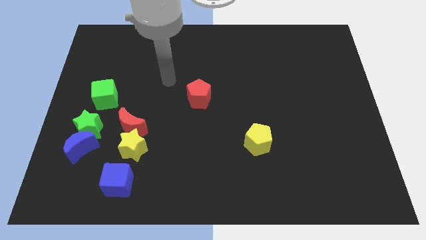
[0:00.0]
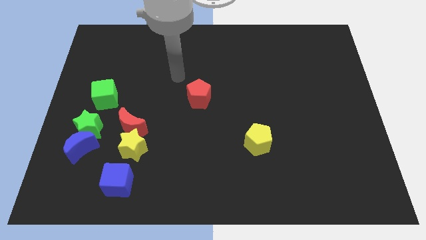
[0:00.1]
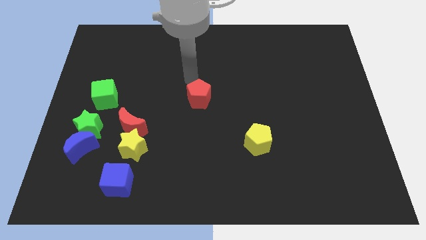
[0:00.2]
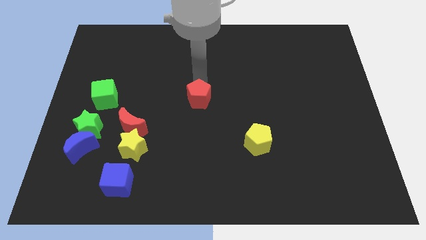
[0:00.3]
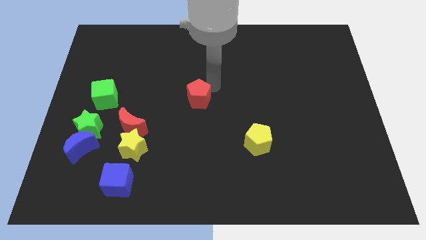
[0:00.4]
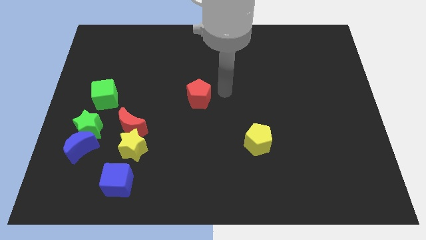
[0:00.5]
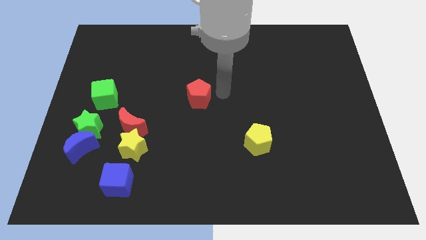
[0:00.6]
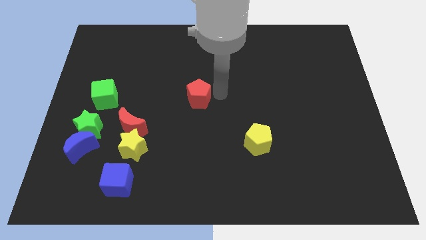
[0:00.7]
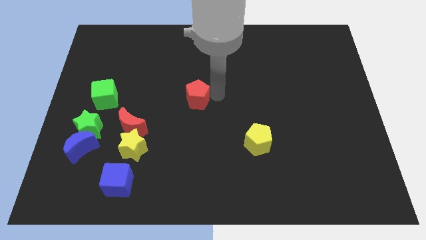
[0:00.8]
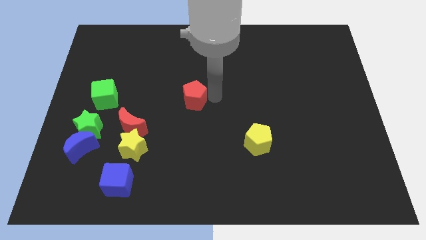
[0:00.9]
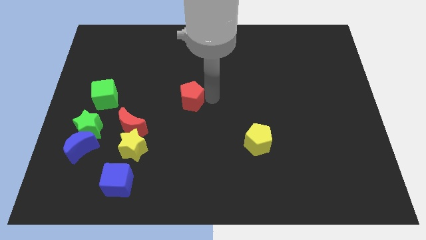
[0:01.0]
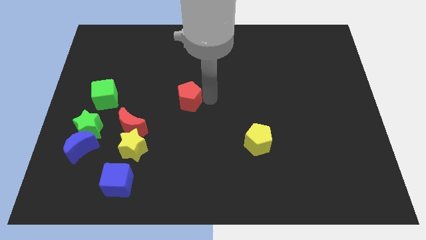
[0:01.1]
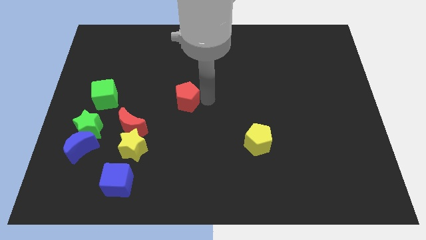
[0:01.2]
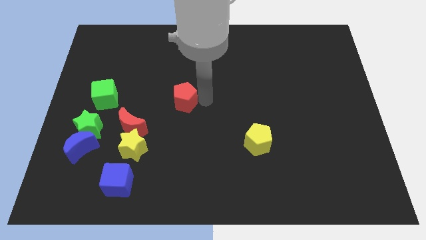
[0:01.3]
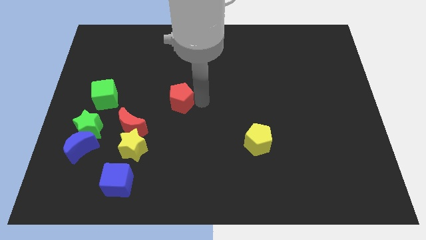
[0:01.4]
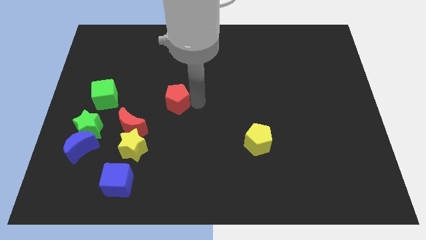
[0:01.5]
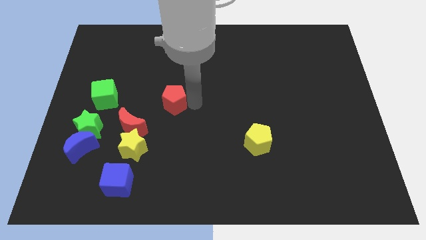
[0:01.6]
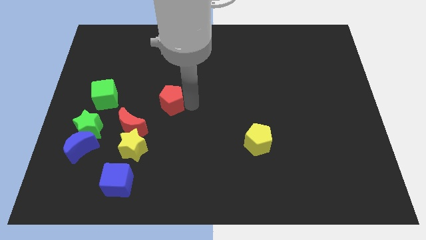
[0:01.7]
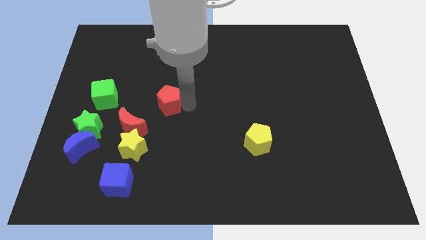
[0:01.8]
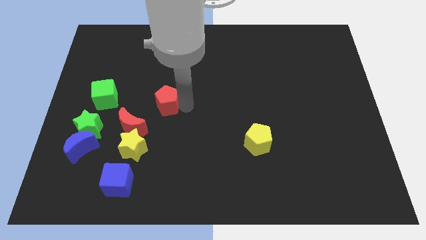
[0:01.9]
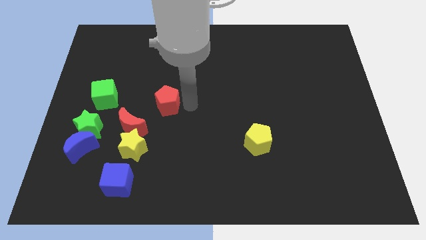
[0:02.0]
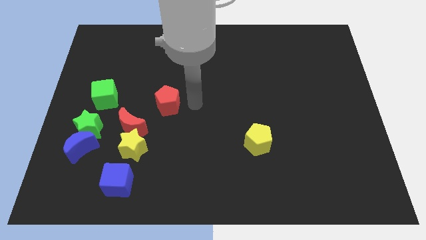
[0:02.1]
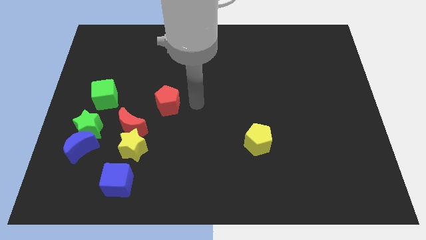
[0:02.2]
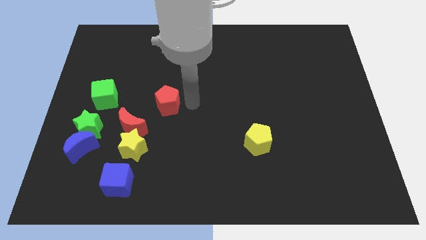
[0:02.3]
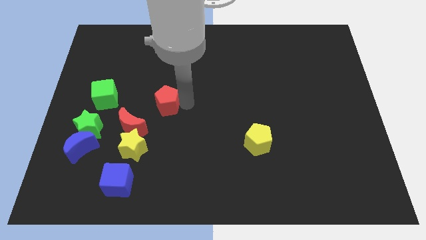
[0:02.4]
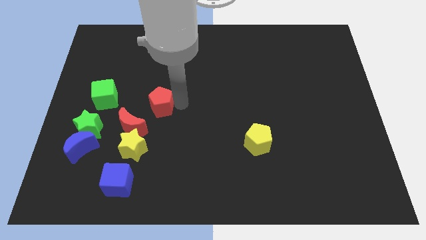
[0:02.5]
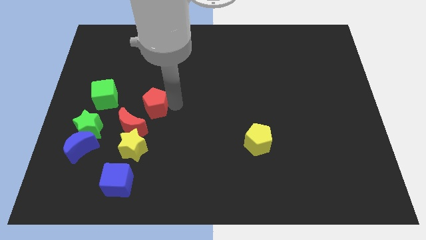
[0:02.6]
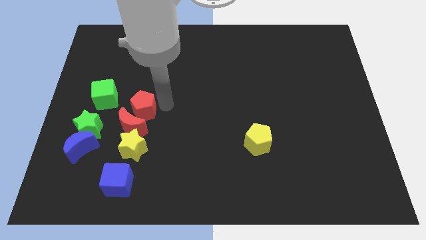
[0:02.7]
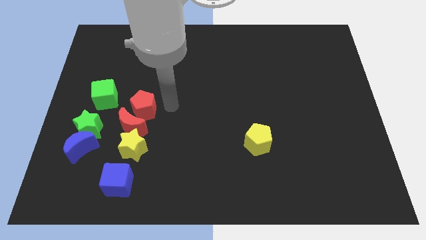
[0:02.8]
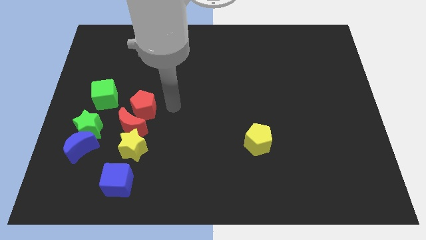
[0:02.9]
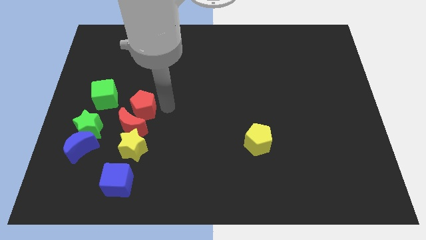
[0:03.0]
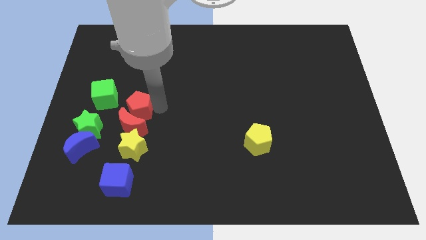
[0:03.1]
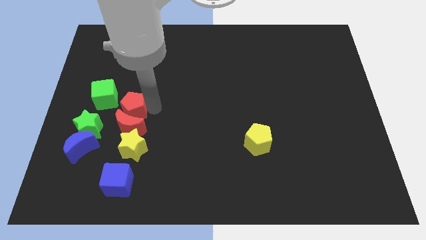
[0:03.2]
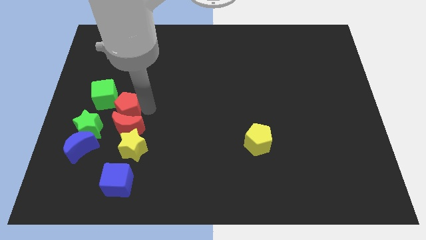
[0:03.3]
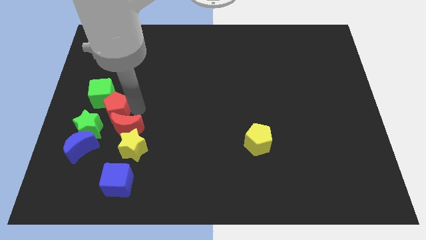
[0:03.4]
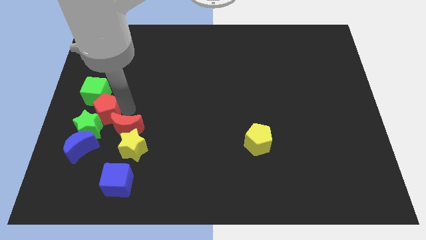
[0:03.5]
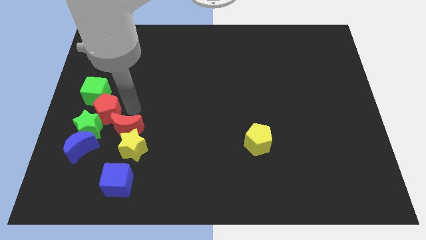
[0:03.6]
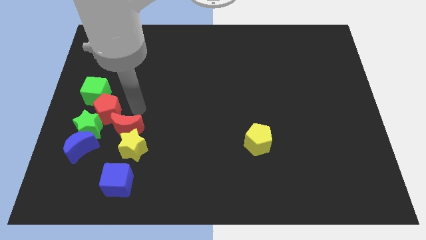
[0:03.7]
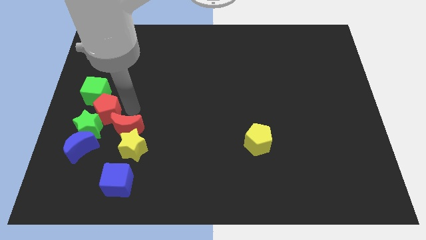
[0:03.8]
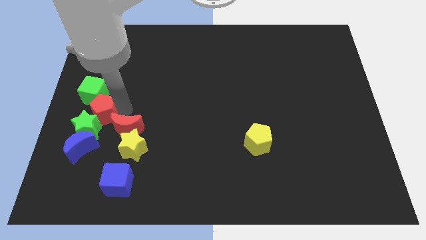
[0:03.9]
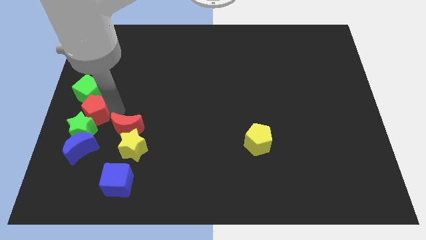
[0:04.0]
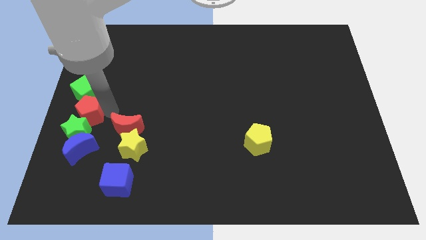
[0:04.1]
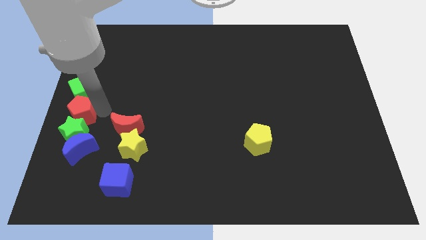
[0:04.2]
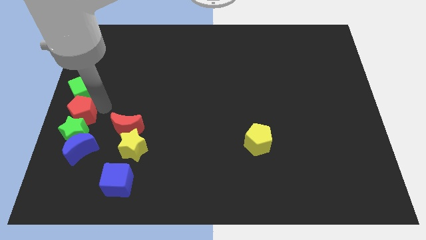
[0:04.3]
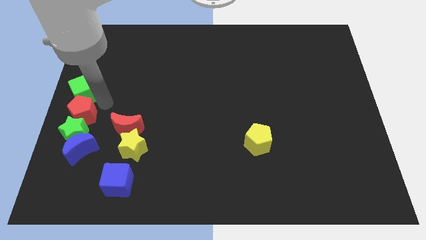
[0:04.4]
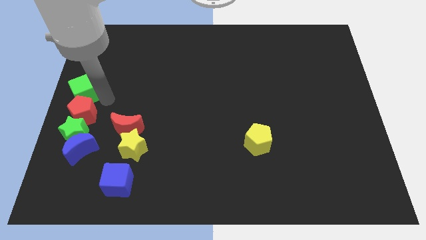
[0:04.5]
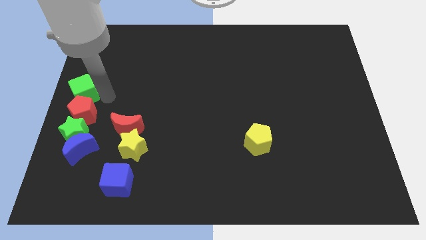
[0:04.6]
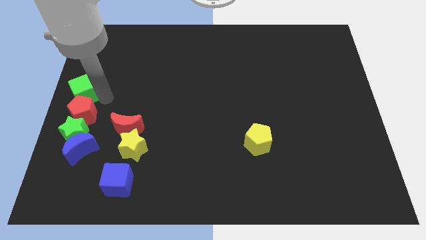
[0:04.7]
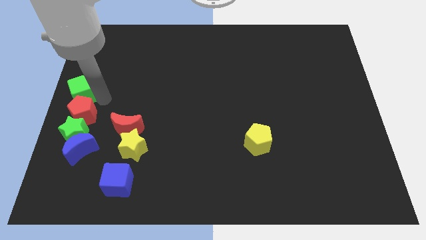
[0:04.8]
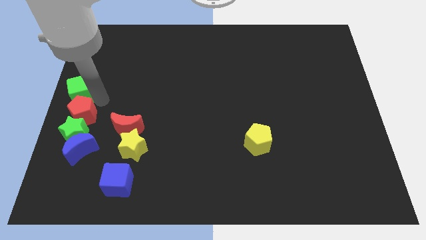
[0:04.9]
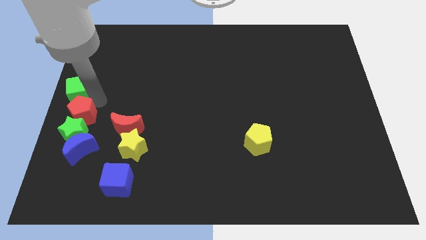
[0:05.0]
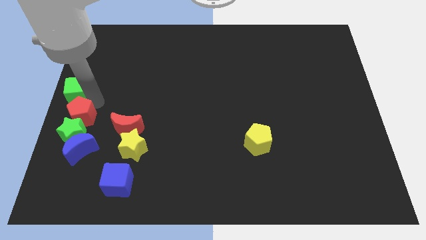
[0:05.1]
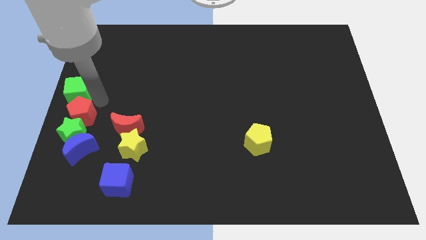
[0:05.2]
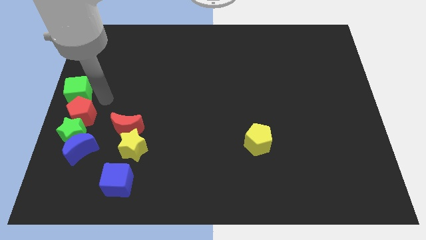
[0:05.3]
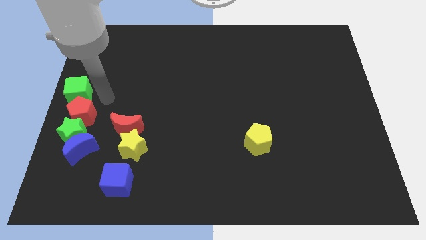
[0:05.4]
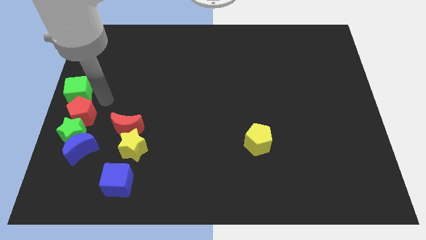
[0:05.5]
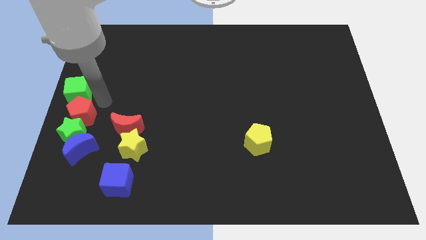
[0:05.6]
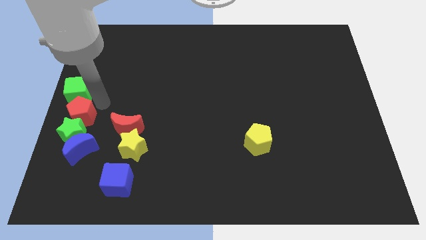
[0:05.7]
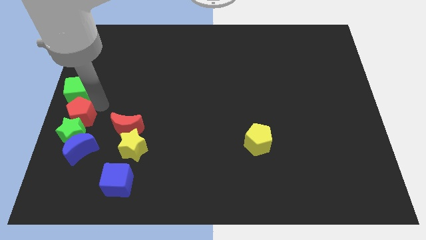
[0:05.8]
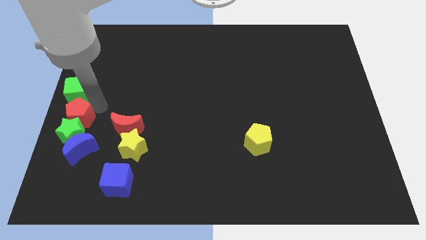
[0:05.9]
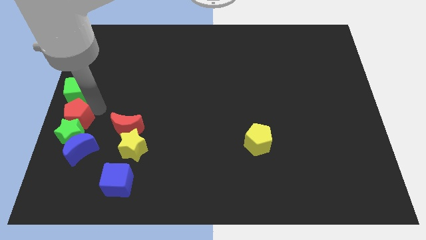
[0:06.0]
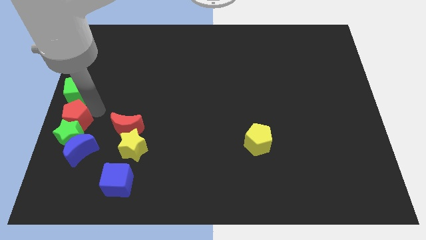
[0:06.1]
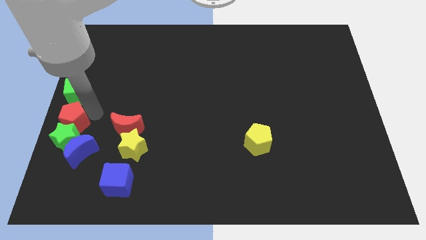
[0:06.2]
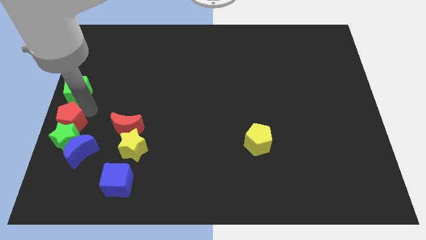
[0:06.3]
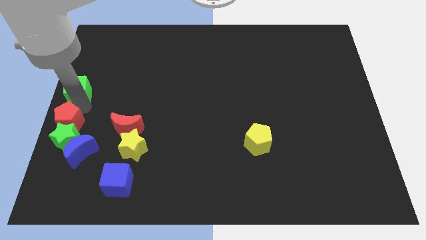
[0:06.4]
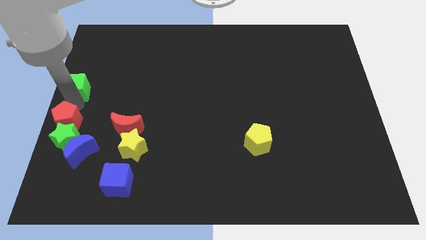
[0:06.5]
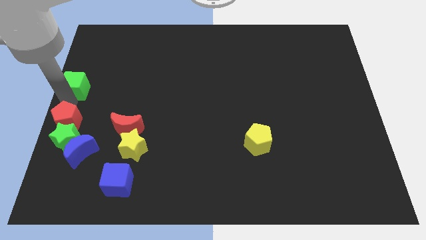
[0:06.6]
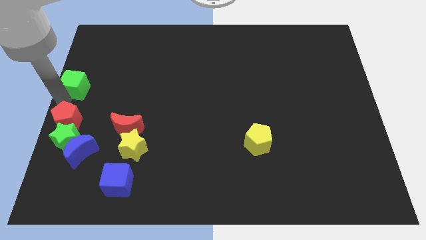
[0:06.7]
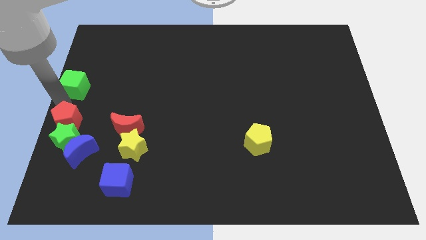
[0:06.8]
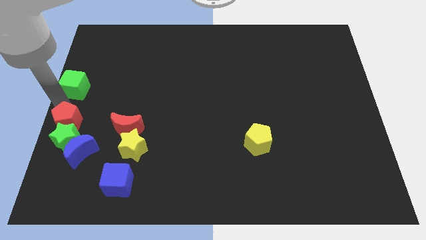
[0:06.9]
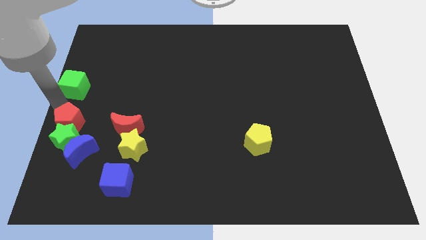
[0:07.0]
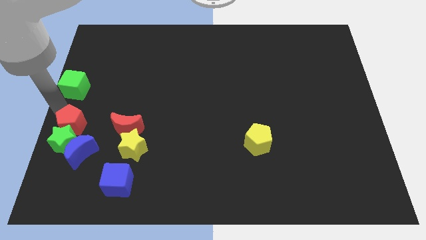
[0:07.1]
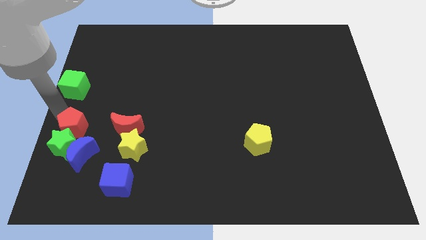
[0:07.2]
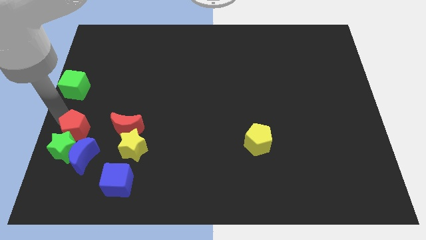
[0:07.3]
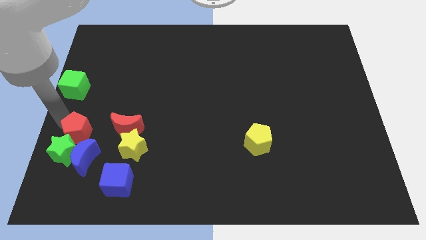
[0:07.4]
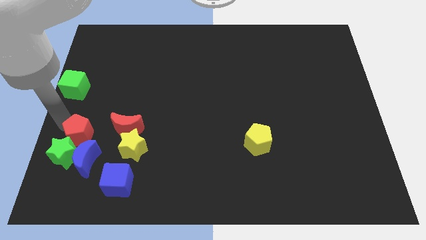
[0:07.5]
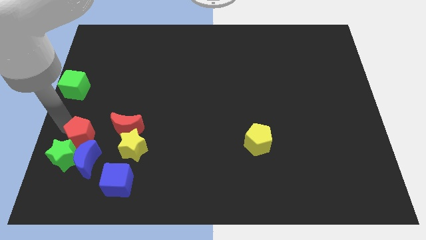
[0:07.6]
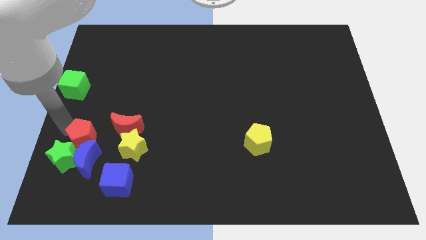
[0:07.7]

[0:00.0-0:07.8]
put the red pentagon next to the blue moon
